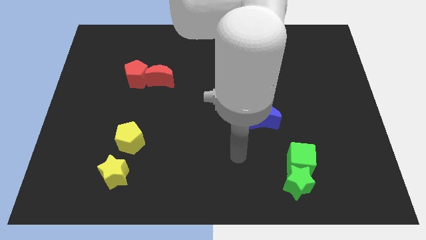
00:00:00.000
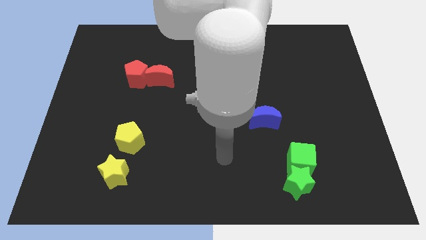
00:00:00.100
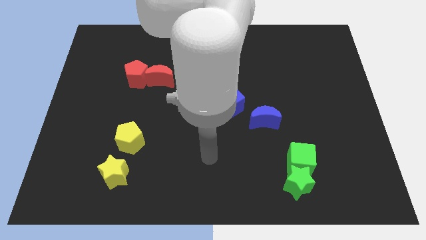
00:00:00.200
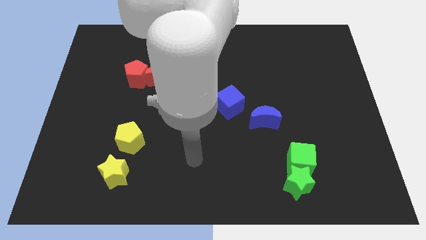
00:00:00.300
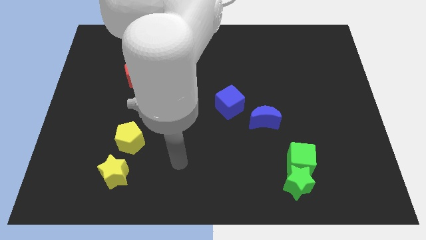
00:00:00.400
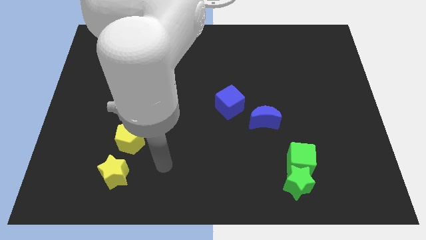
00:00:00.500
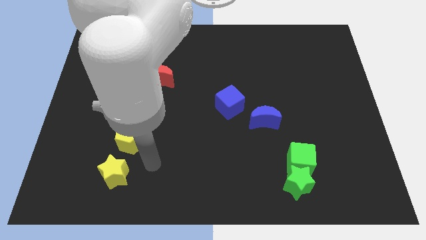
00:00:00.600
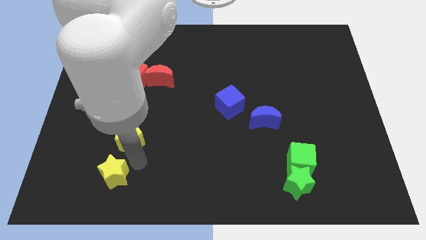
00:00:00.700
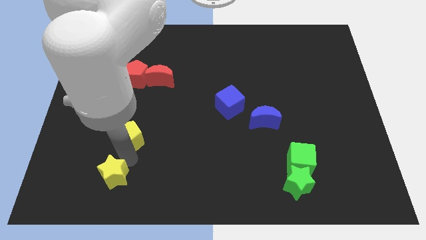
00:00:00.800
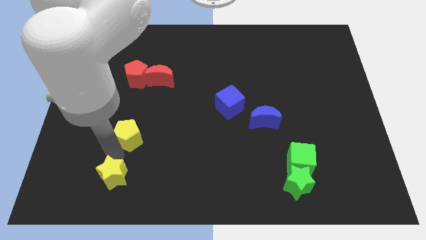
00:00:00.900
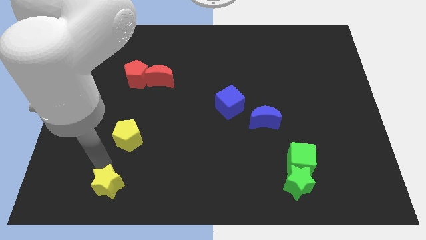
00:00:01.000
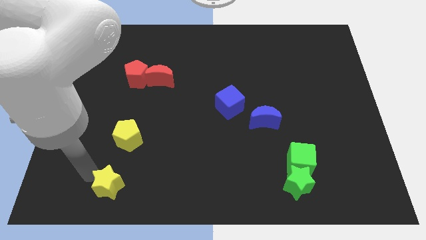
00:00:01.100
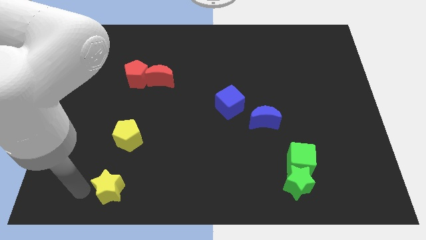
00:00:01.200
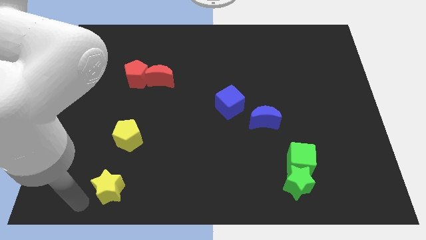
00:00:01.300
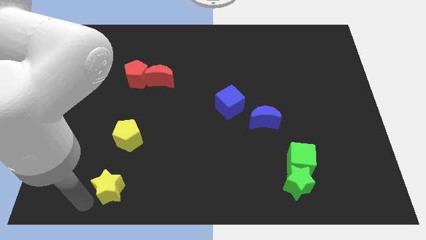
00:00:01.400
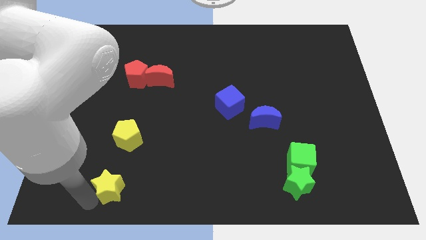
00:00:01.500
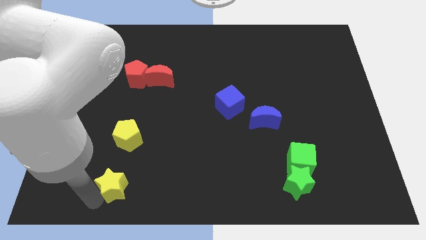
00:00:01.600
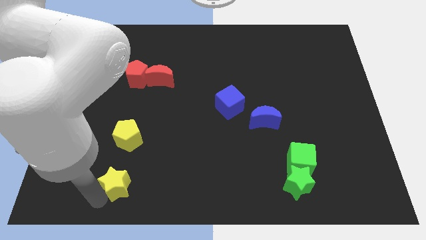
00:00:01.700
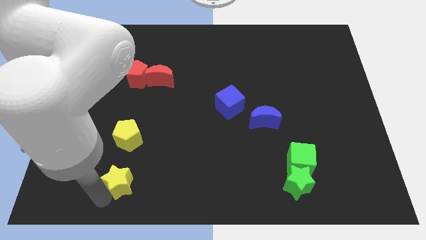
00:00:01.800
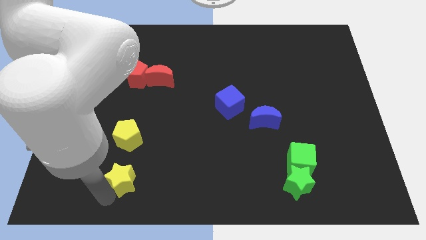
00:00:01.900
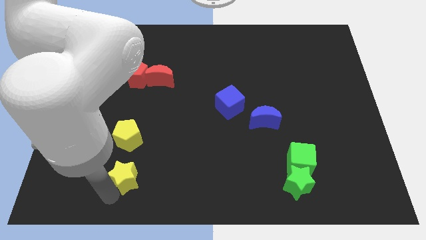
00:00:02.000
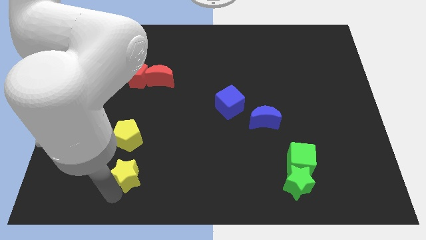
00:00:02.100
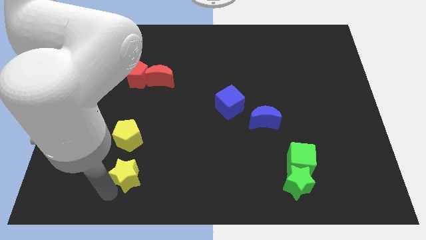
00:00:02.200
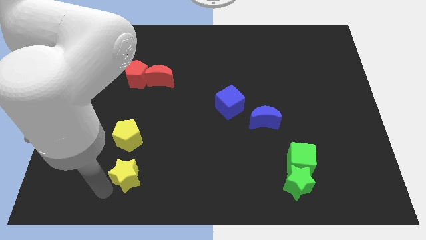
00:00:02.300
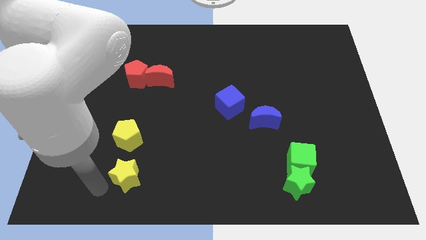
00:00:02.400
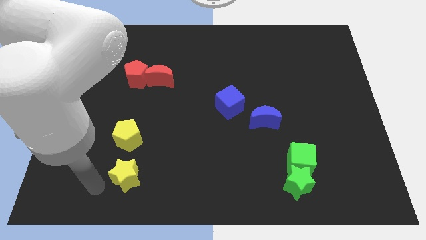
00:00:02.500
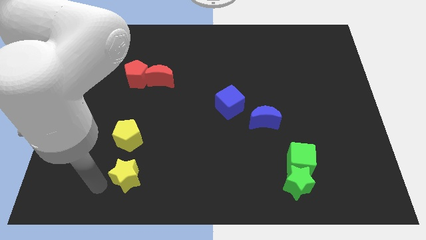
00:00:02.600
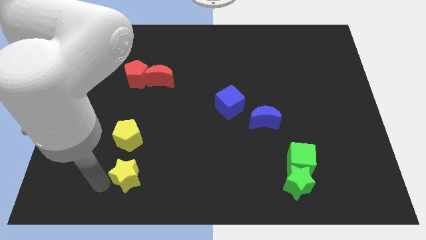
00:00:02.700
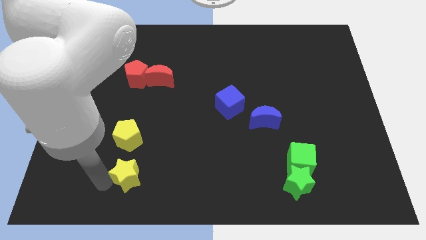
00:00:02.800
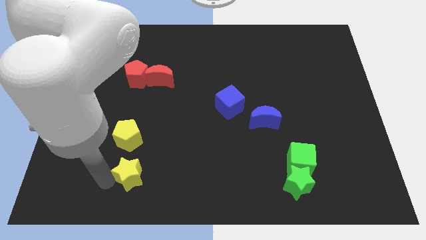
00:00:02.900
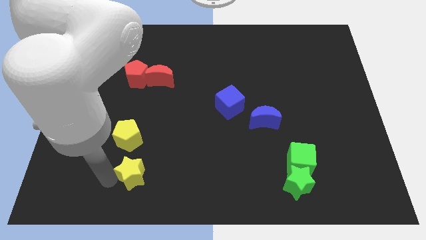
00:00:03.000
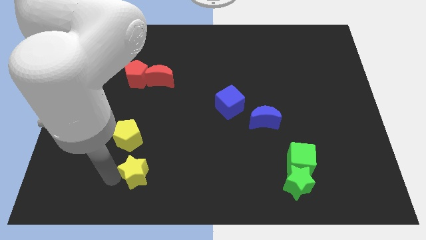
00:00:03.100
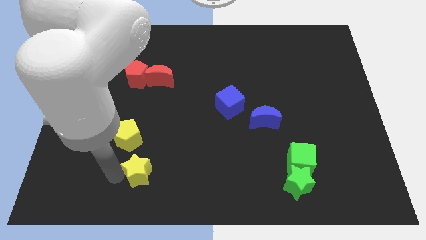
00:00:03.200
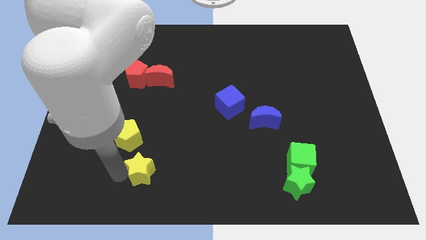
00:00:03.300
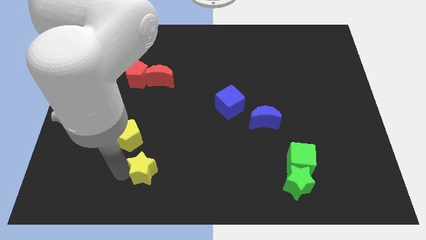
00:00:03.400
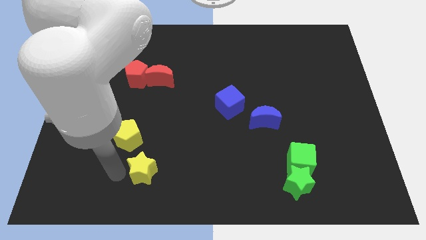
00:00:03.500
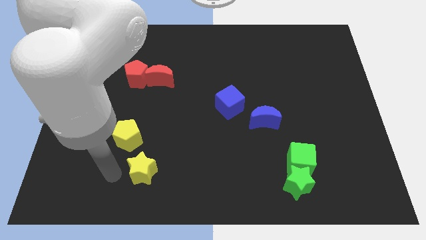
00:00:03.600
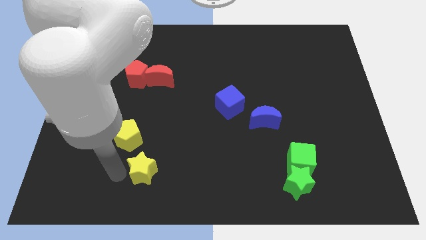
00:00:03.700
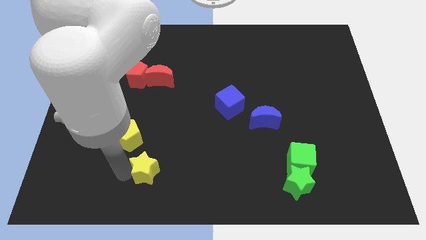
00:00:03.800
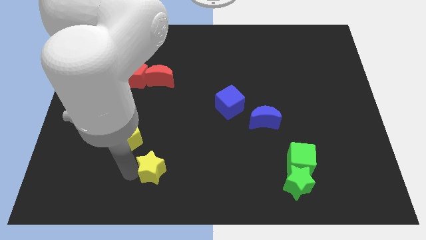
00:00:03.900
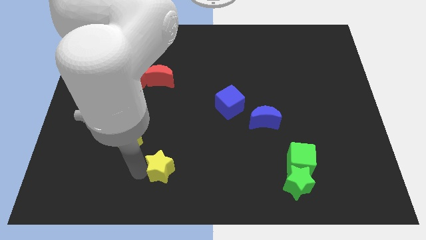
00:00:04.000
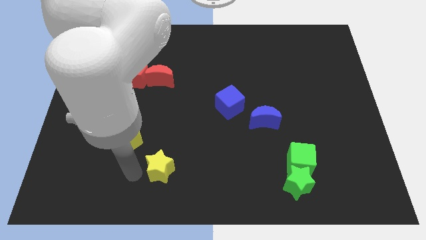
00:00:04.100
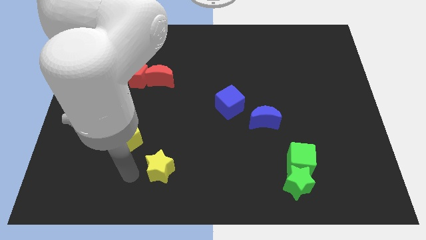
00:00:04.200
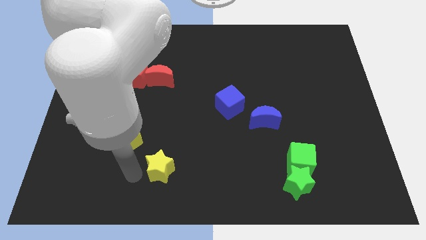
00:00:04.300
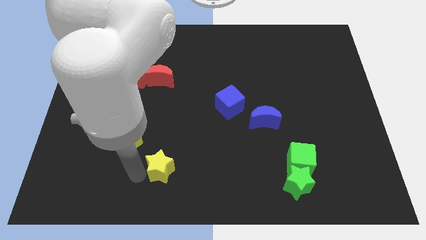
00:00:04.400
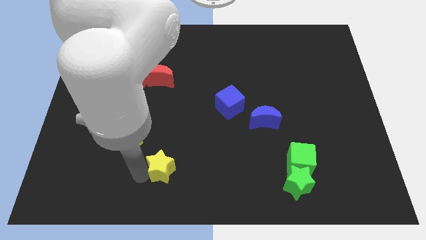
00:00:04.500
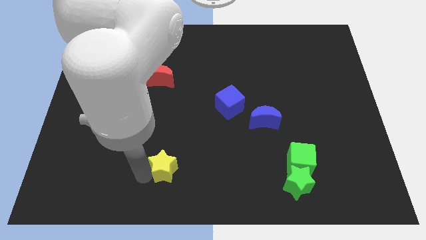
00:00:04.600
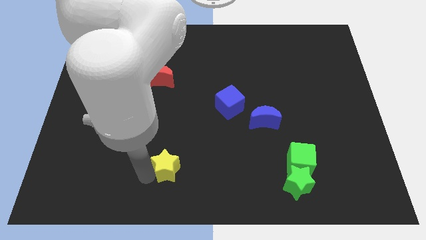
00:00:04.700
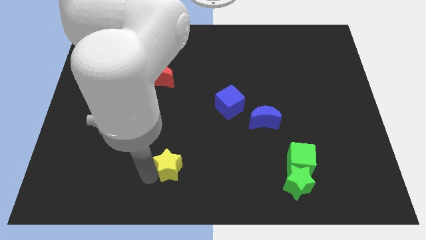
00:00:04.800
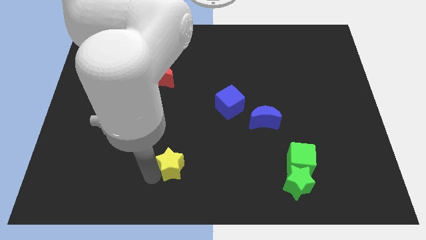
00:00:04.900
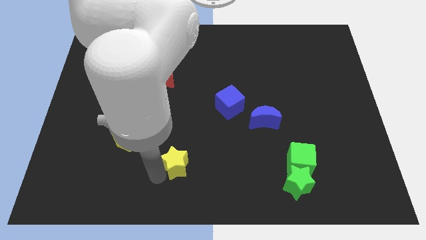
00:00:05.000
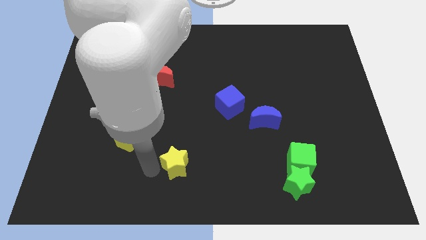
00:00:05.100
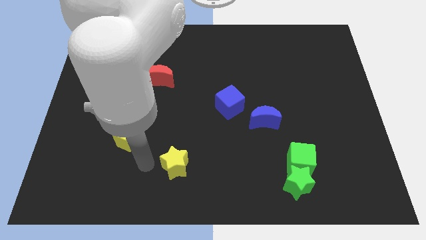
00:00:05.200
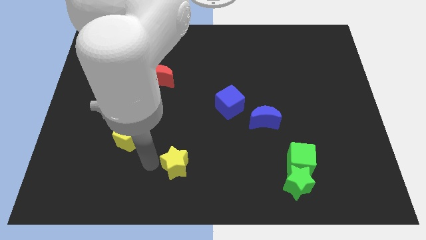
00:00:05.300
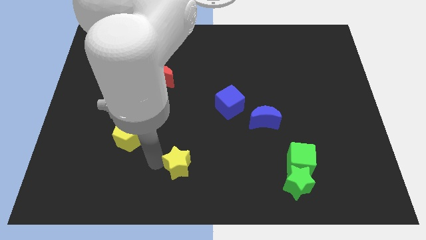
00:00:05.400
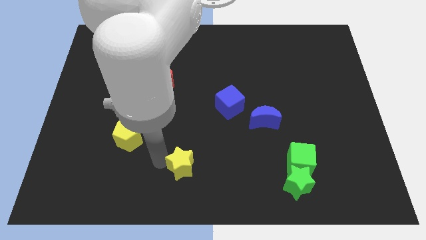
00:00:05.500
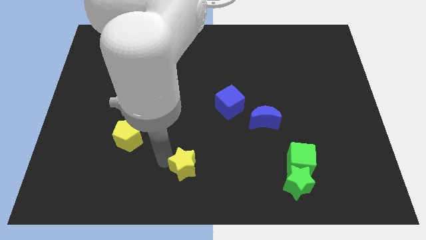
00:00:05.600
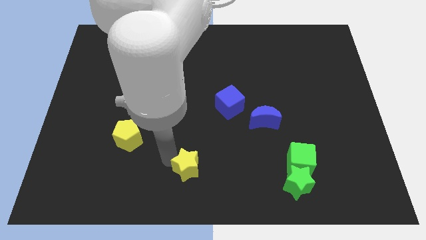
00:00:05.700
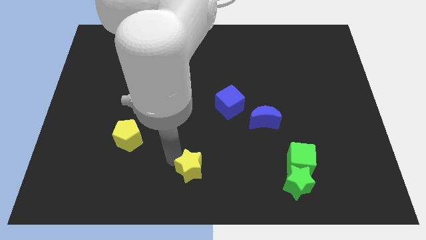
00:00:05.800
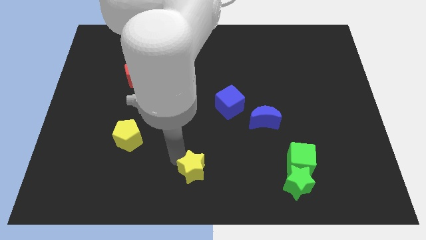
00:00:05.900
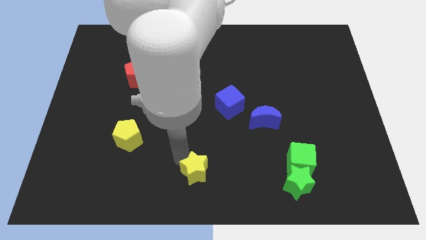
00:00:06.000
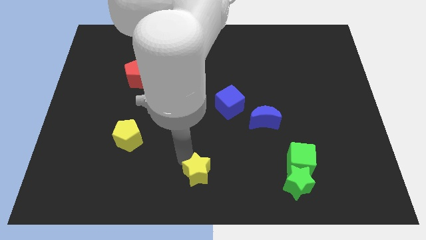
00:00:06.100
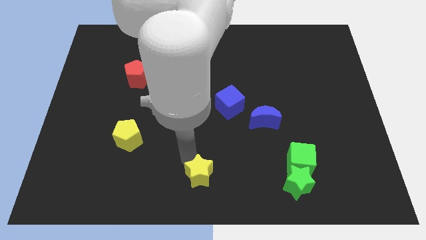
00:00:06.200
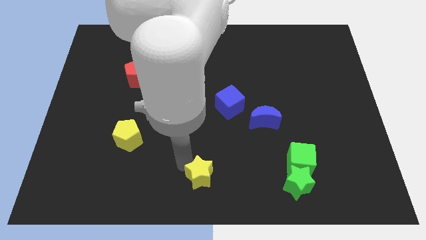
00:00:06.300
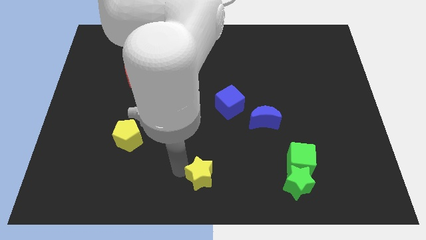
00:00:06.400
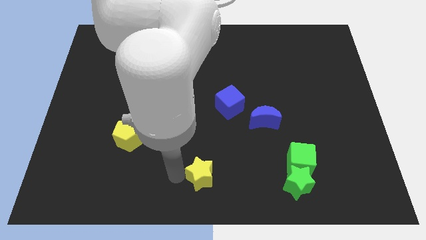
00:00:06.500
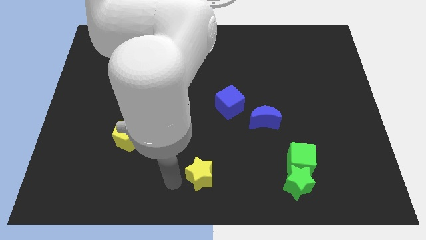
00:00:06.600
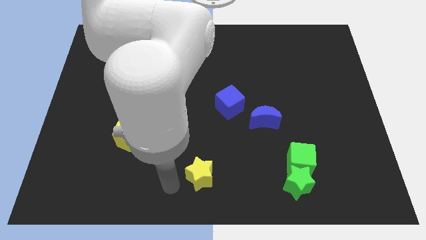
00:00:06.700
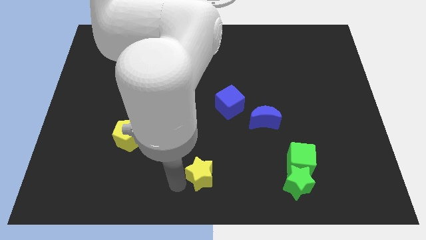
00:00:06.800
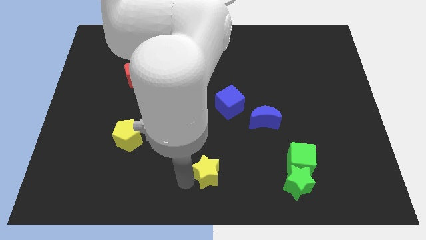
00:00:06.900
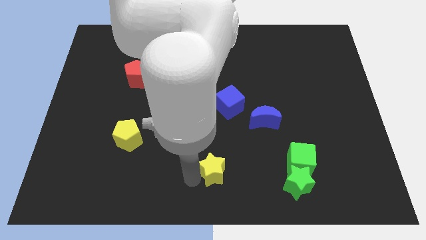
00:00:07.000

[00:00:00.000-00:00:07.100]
move the yellow star right

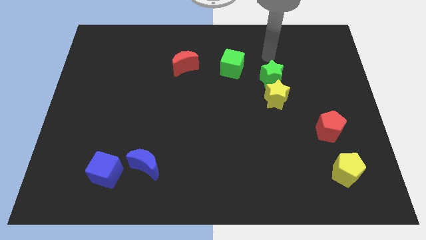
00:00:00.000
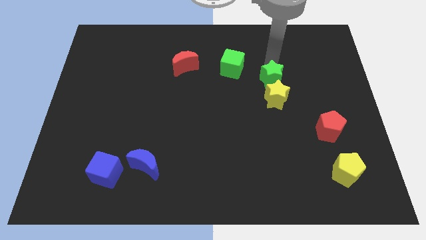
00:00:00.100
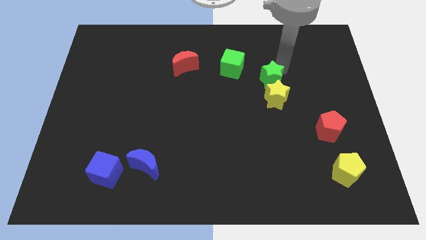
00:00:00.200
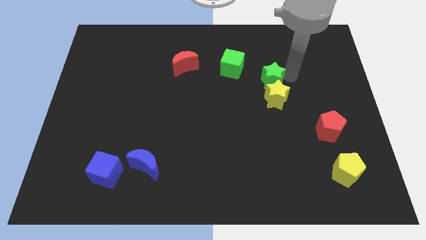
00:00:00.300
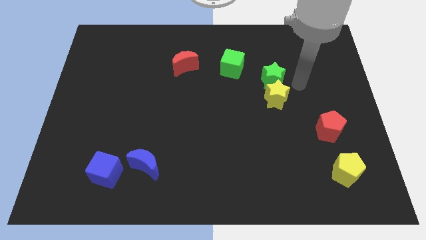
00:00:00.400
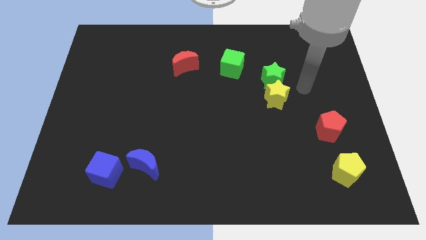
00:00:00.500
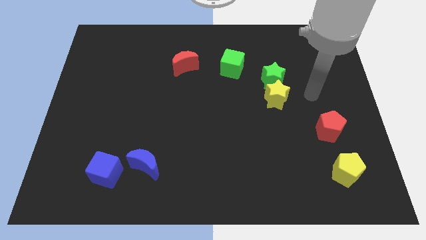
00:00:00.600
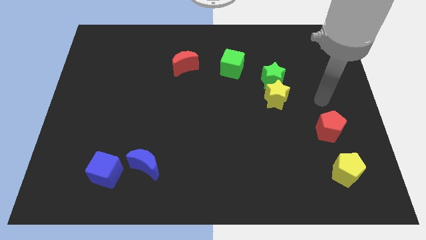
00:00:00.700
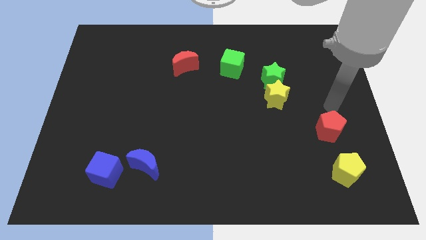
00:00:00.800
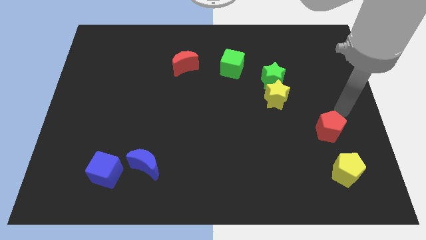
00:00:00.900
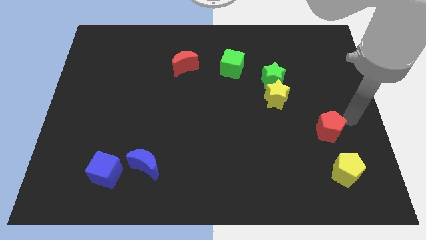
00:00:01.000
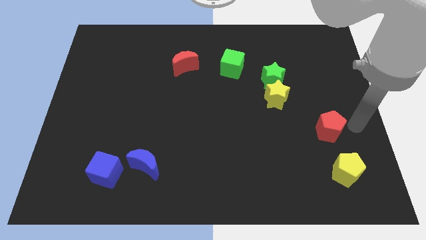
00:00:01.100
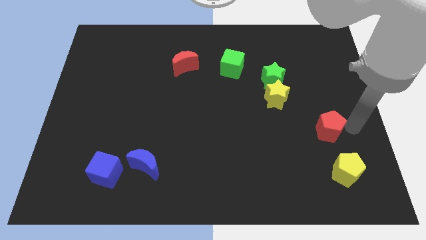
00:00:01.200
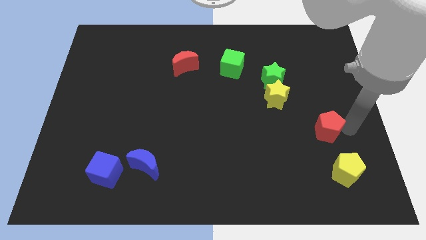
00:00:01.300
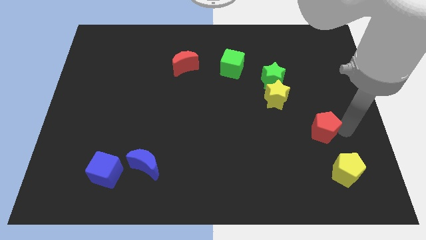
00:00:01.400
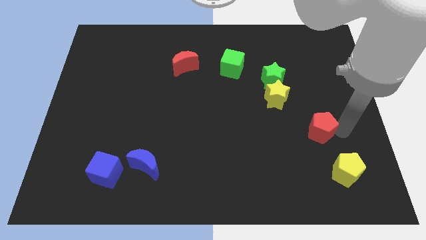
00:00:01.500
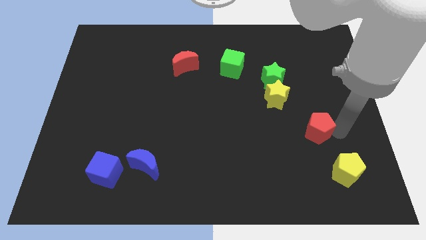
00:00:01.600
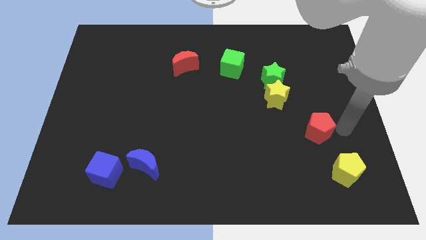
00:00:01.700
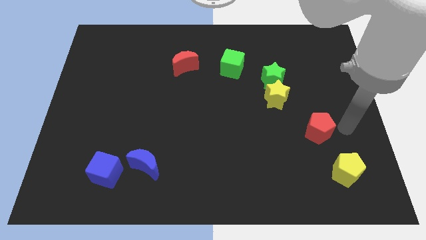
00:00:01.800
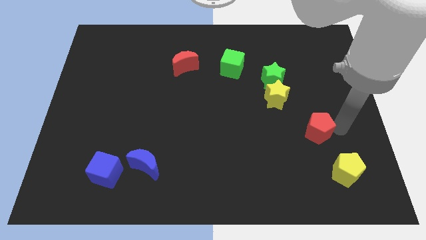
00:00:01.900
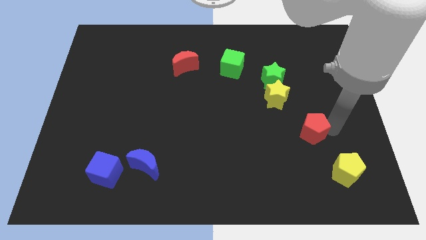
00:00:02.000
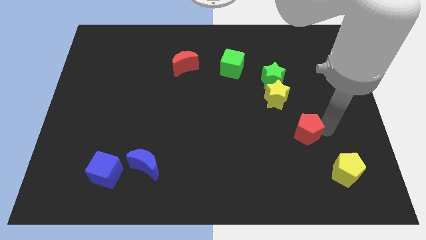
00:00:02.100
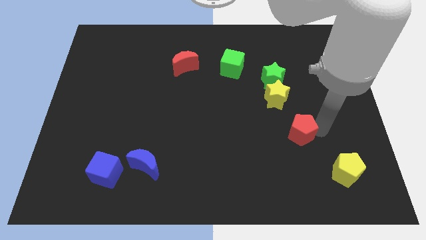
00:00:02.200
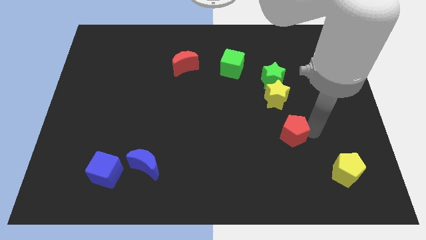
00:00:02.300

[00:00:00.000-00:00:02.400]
move the red pentagon somewhat left
